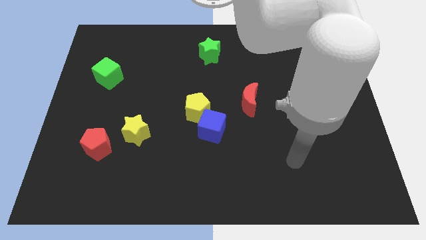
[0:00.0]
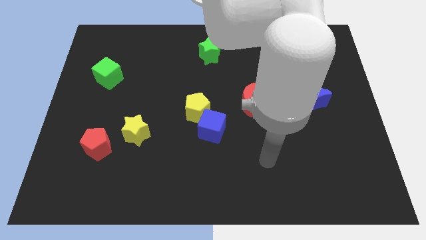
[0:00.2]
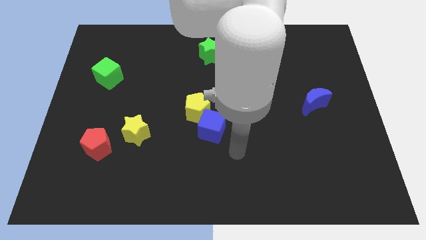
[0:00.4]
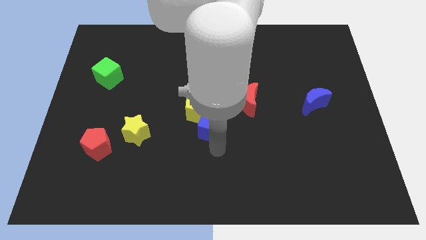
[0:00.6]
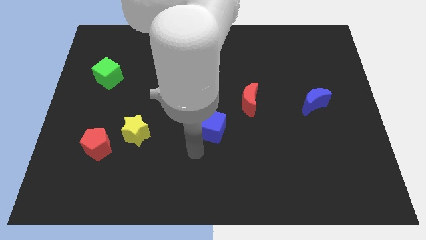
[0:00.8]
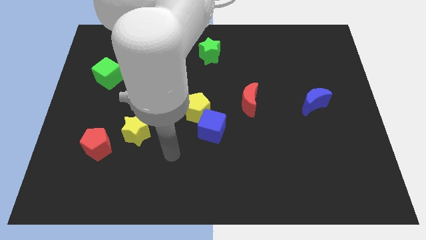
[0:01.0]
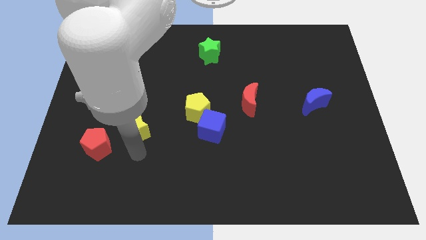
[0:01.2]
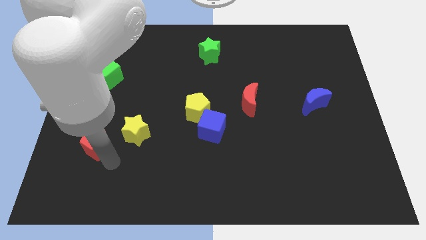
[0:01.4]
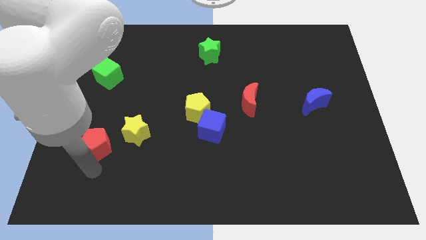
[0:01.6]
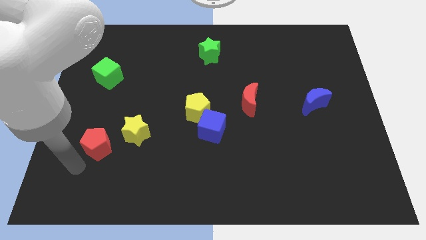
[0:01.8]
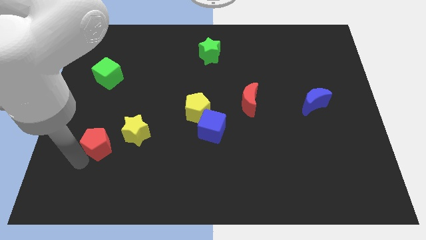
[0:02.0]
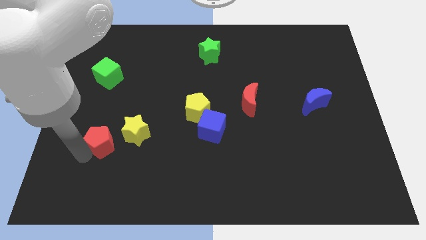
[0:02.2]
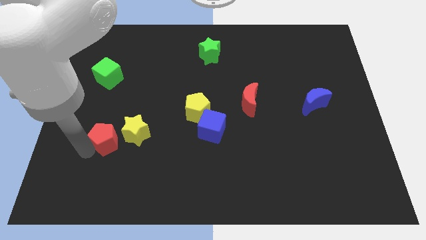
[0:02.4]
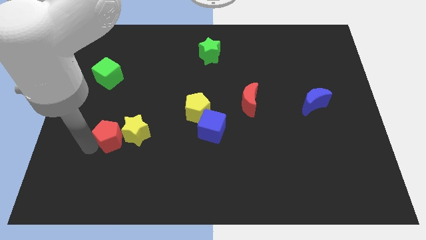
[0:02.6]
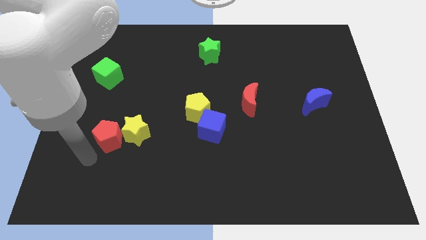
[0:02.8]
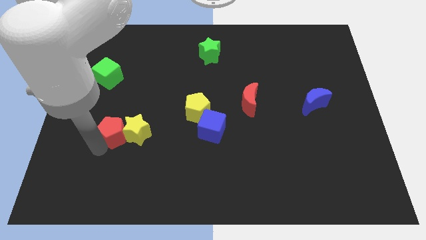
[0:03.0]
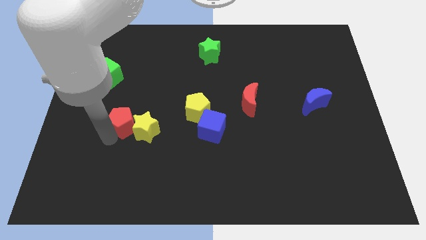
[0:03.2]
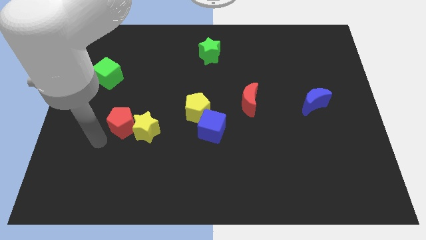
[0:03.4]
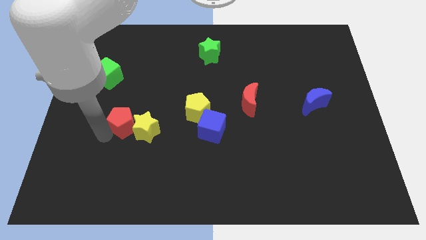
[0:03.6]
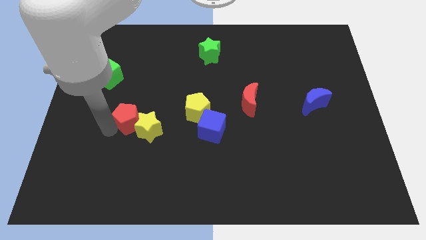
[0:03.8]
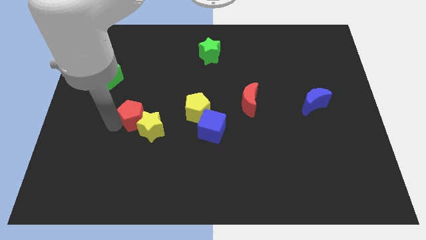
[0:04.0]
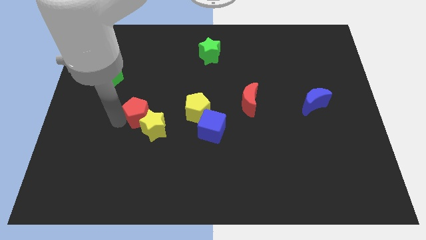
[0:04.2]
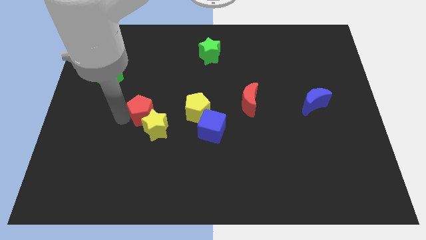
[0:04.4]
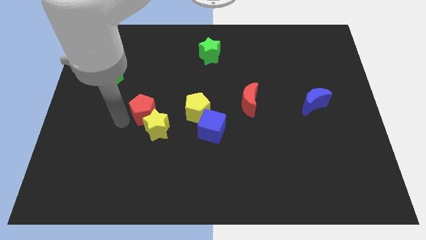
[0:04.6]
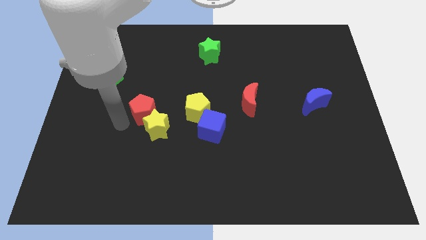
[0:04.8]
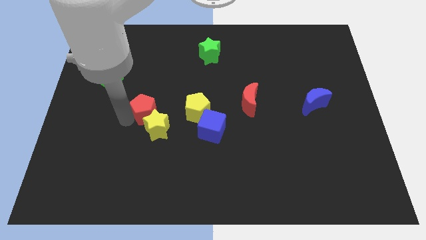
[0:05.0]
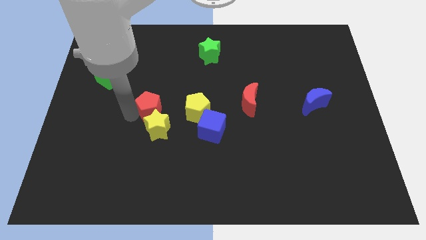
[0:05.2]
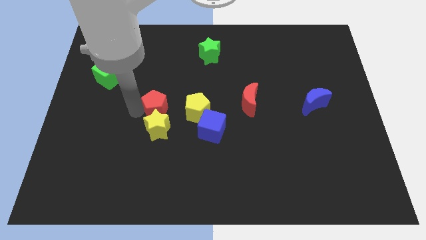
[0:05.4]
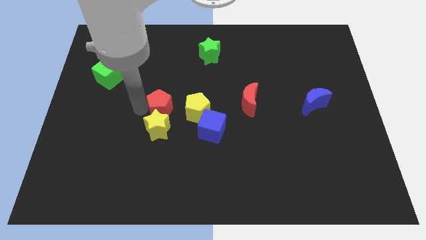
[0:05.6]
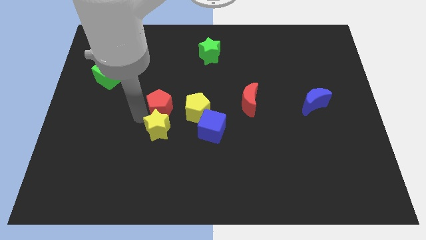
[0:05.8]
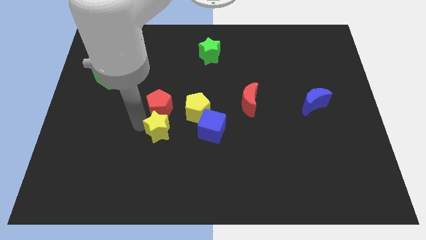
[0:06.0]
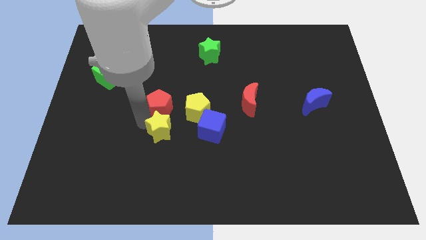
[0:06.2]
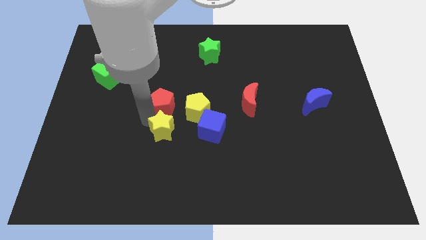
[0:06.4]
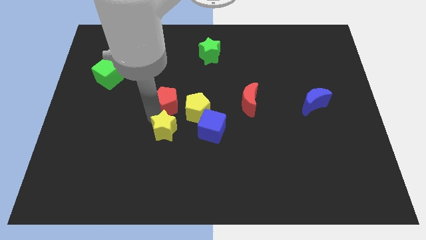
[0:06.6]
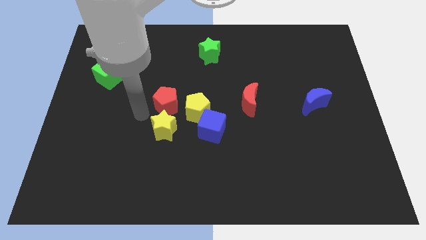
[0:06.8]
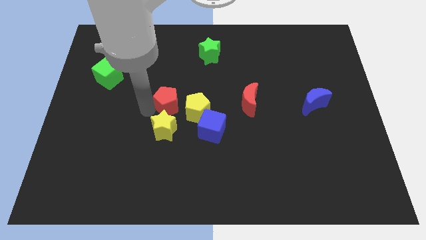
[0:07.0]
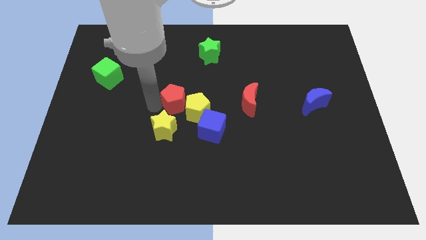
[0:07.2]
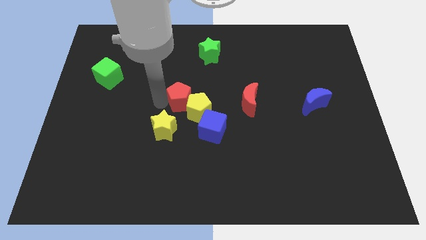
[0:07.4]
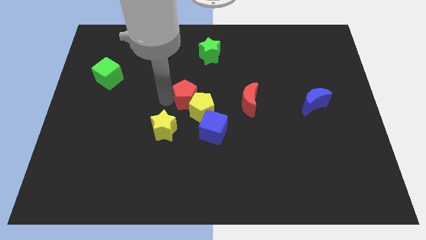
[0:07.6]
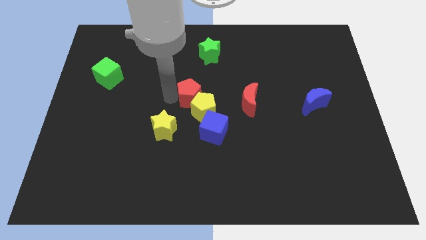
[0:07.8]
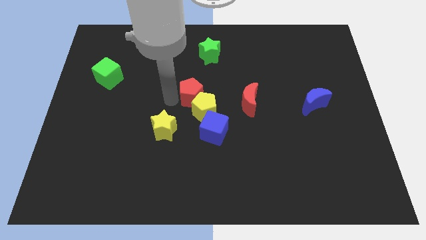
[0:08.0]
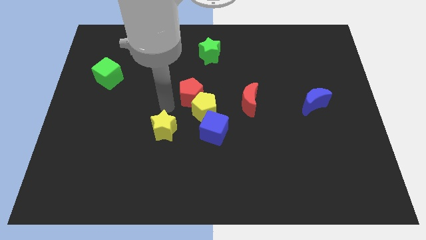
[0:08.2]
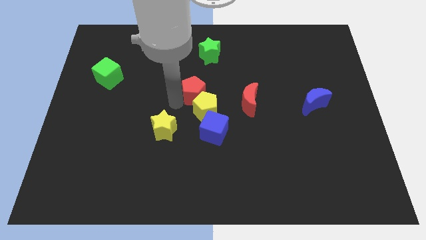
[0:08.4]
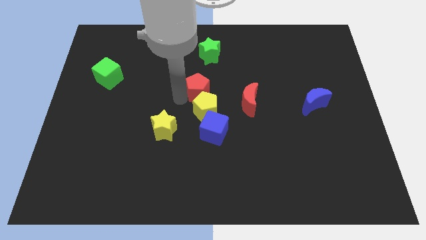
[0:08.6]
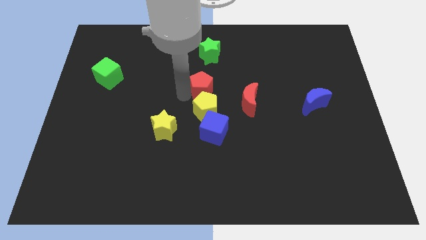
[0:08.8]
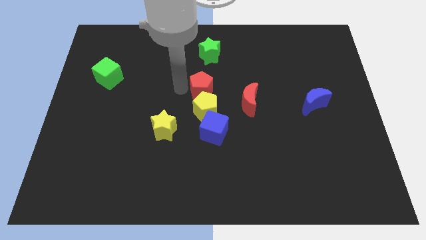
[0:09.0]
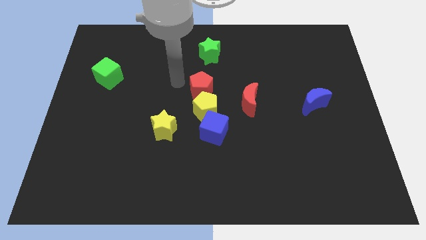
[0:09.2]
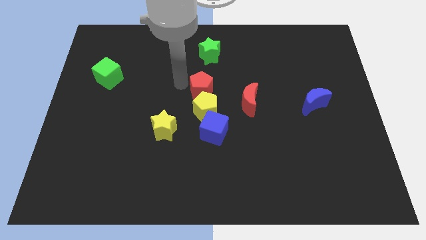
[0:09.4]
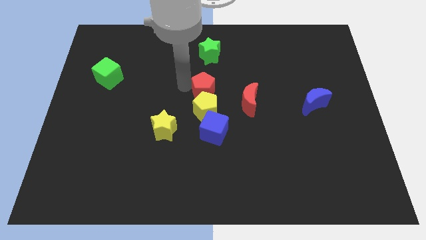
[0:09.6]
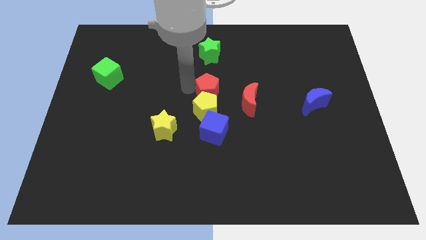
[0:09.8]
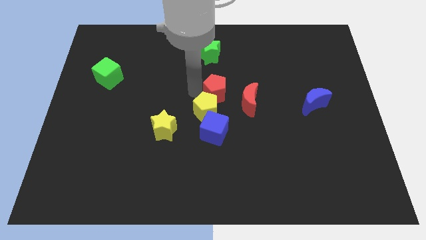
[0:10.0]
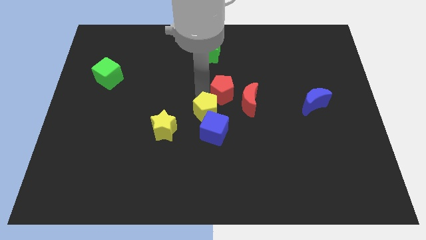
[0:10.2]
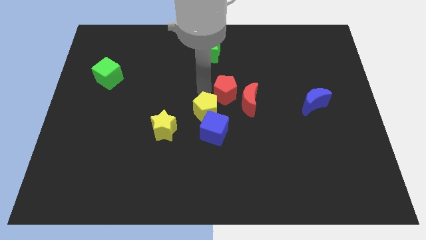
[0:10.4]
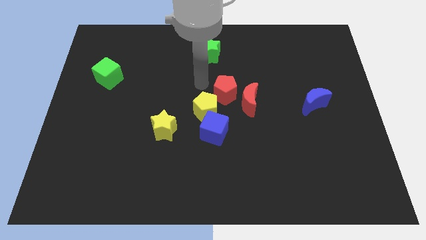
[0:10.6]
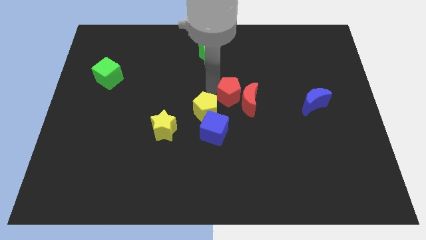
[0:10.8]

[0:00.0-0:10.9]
push the red pentagon to the red moon

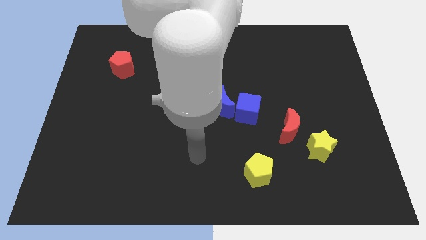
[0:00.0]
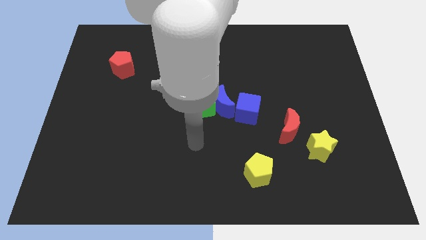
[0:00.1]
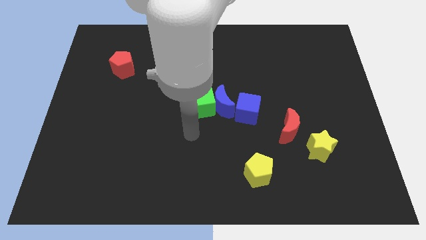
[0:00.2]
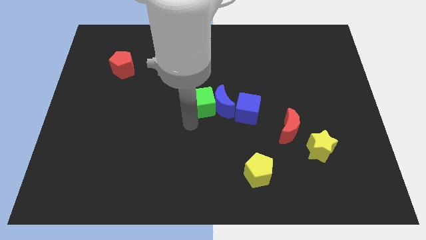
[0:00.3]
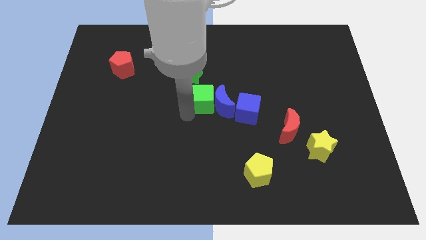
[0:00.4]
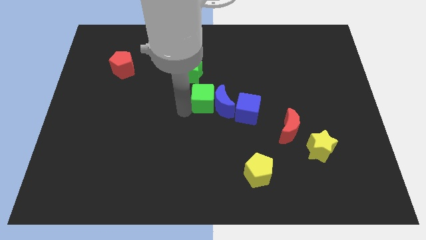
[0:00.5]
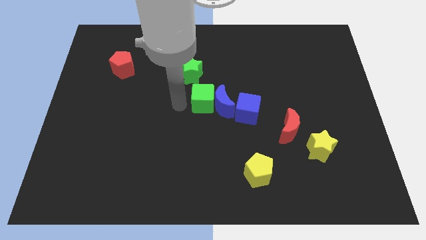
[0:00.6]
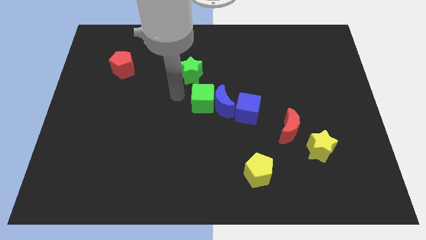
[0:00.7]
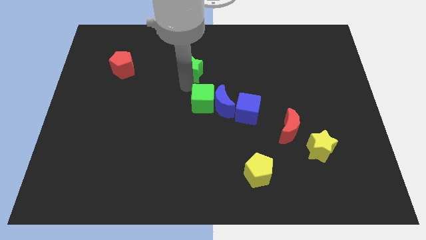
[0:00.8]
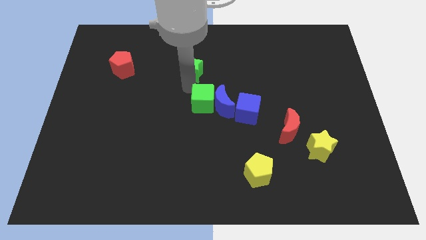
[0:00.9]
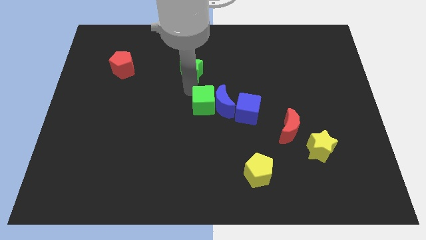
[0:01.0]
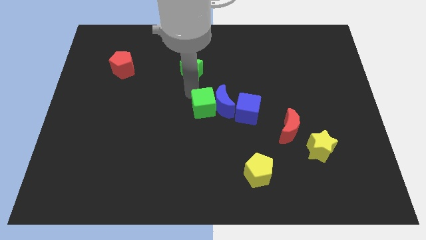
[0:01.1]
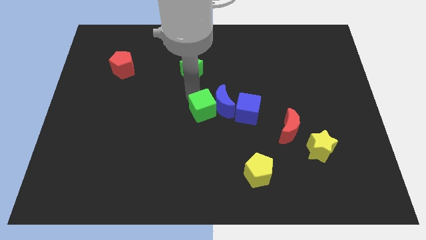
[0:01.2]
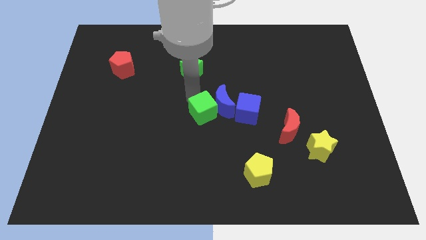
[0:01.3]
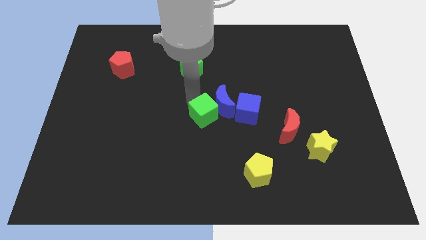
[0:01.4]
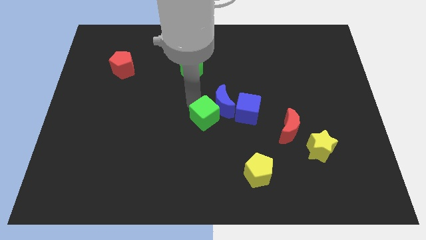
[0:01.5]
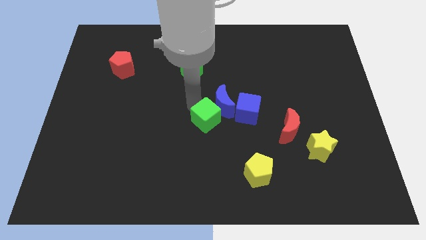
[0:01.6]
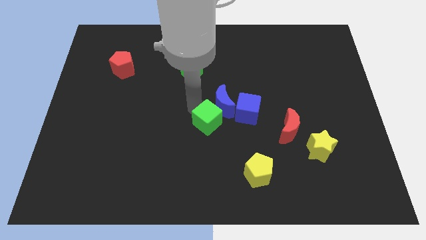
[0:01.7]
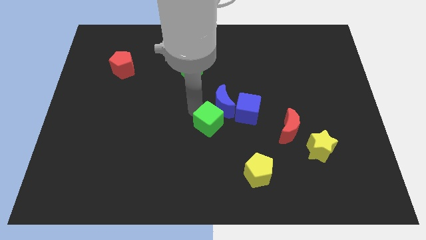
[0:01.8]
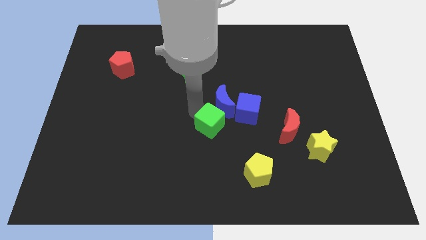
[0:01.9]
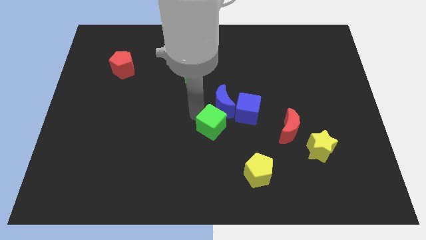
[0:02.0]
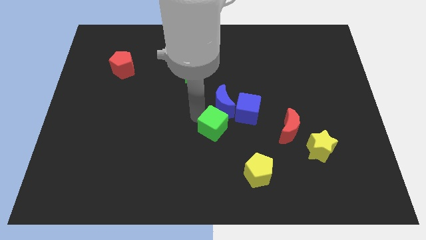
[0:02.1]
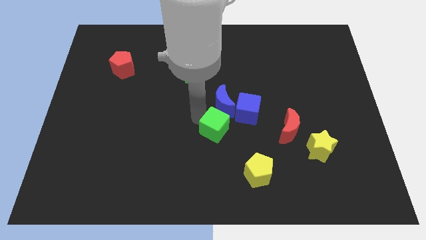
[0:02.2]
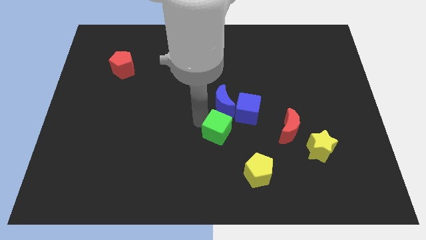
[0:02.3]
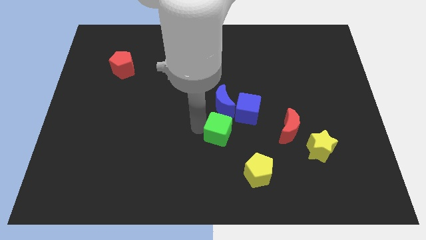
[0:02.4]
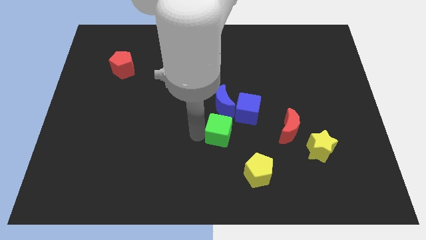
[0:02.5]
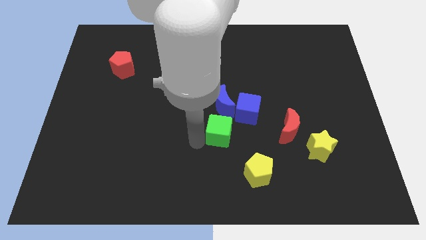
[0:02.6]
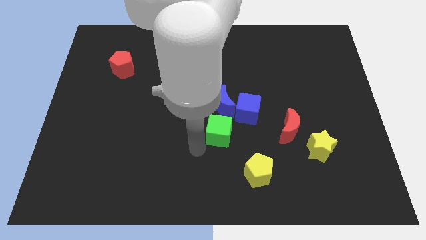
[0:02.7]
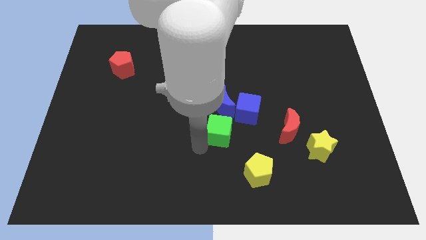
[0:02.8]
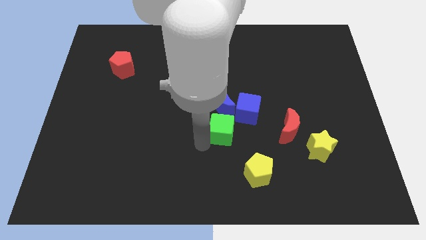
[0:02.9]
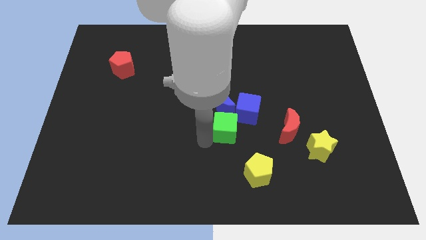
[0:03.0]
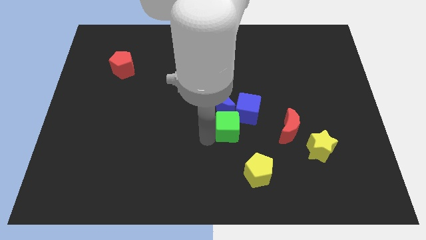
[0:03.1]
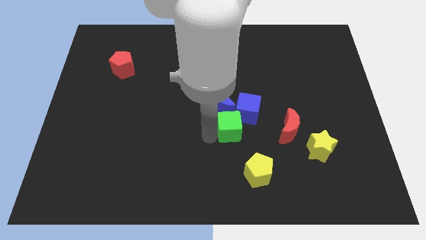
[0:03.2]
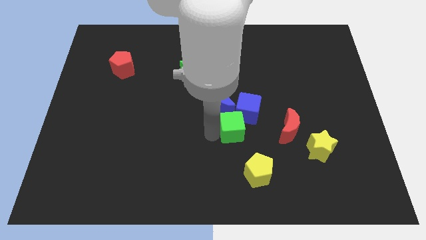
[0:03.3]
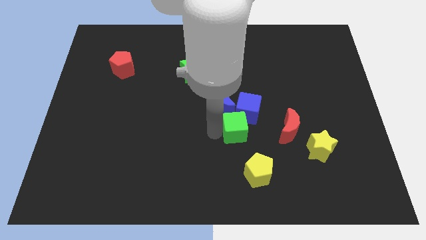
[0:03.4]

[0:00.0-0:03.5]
put the green cube close to the blue cube
